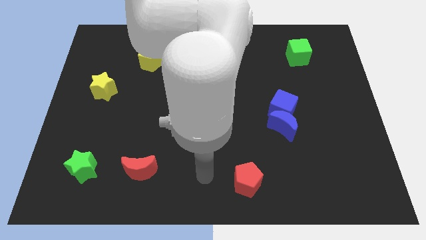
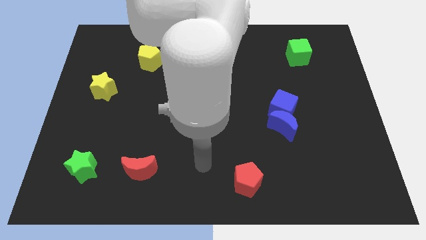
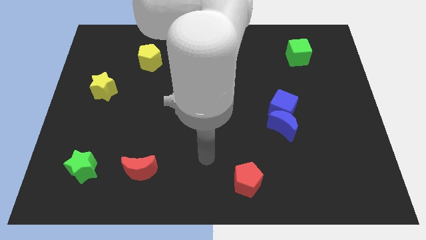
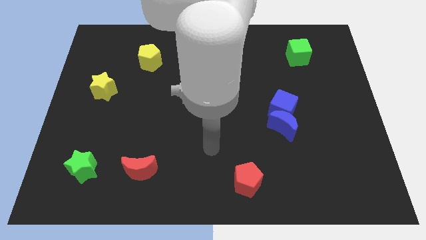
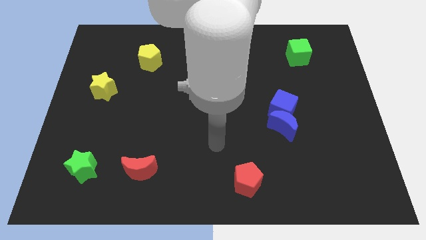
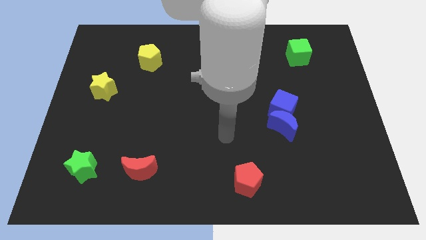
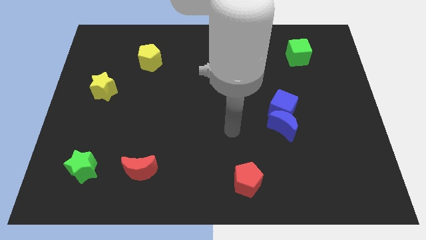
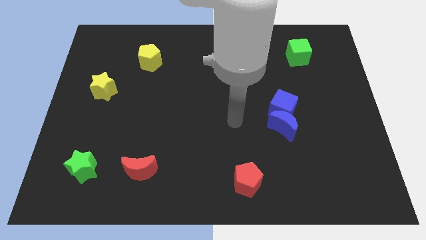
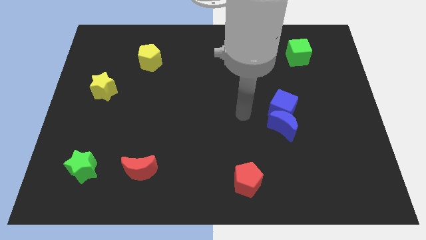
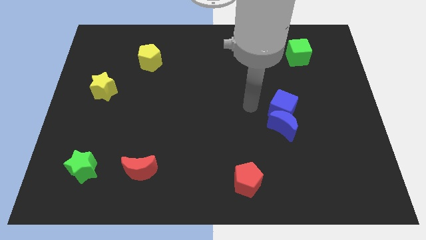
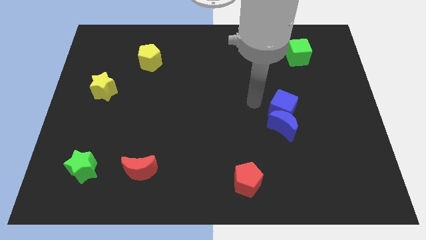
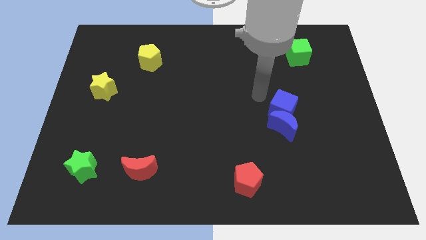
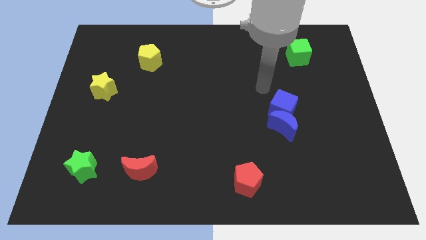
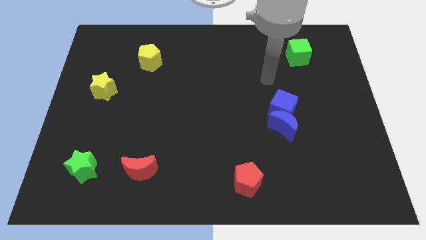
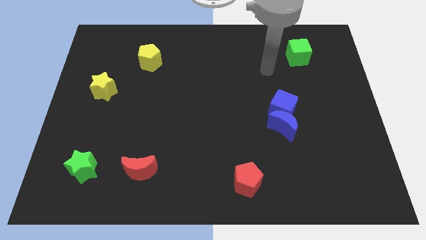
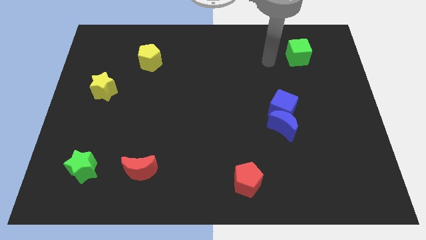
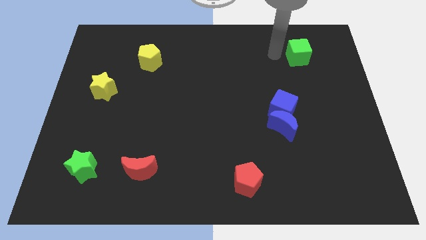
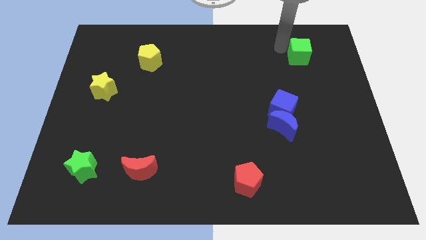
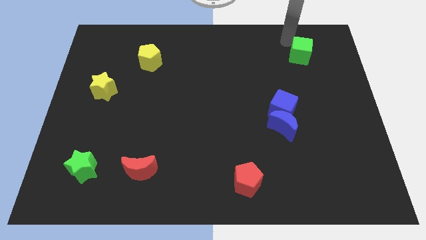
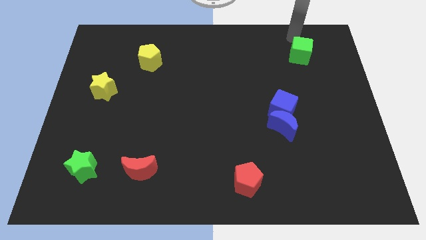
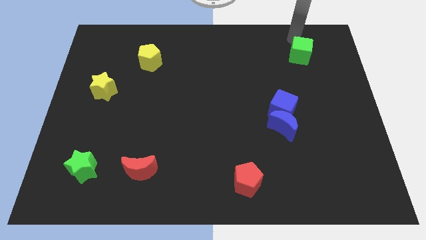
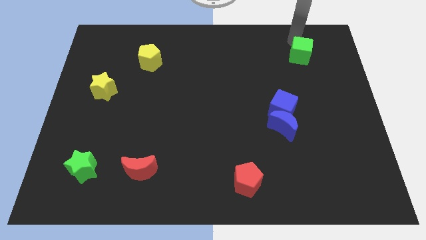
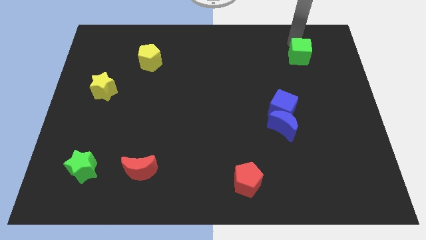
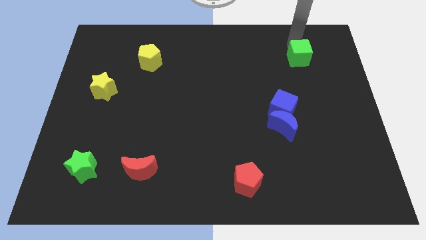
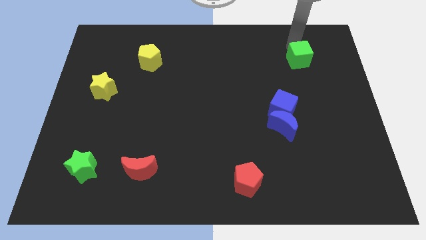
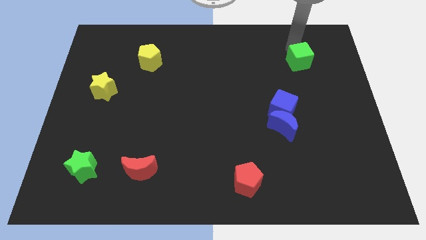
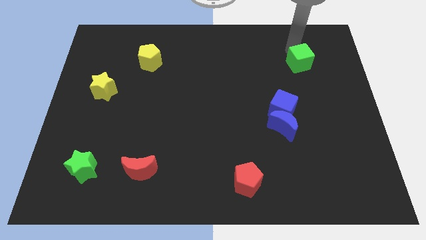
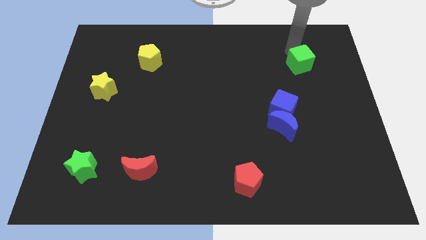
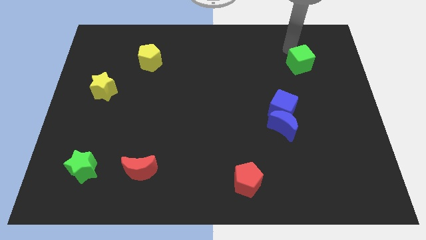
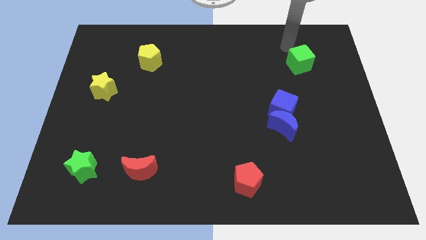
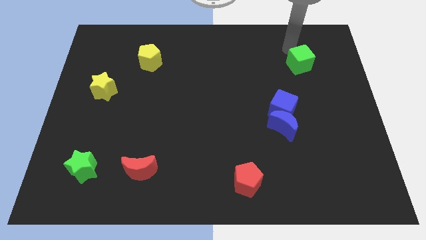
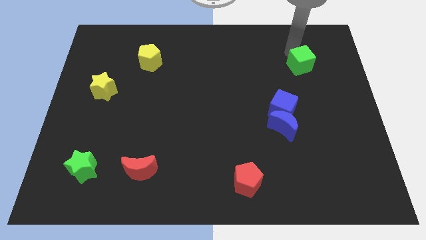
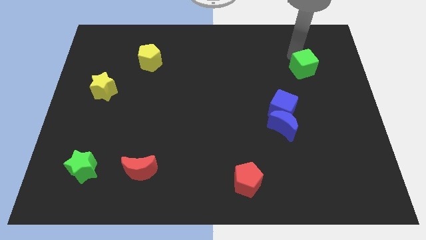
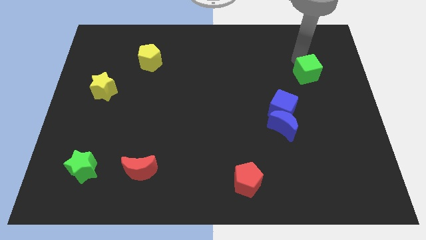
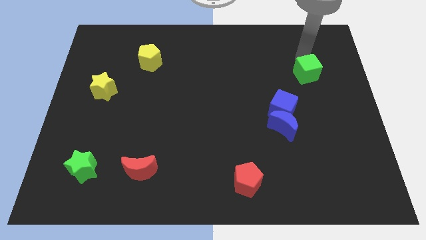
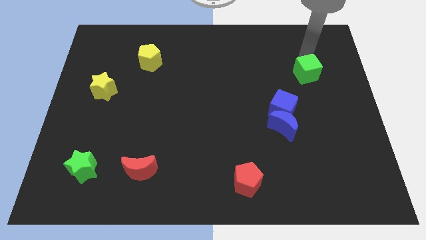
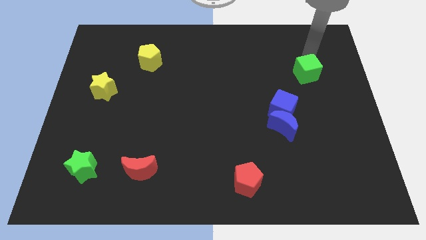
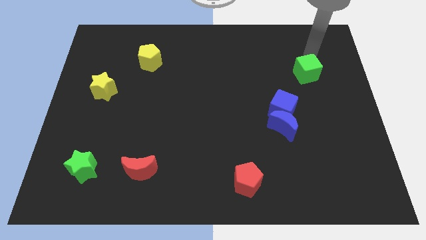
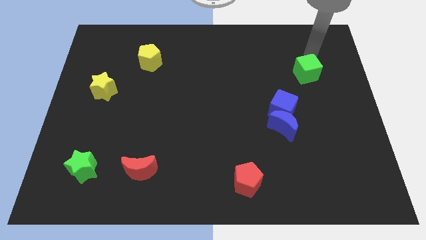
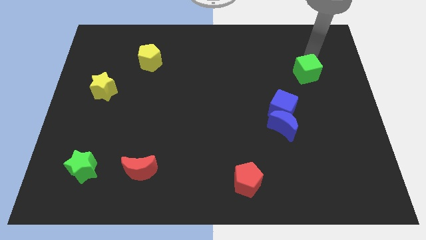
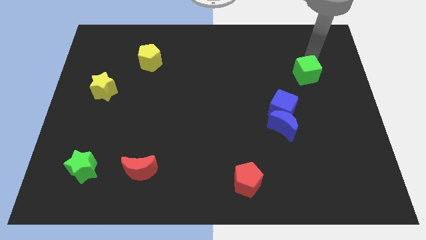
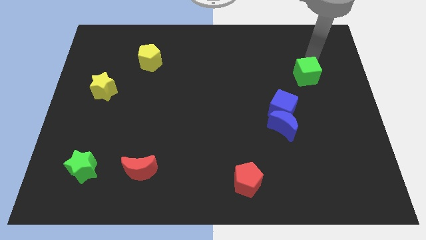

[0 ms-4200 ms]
slide the green cube a little downwards

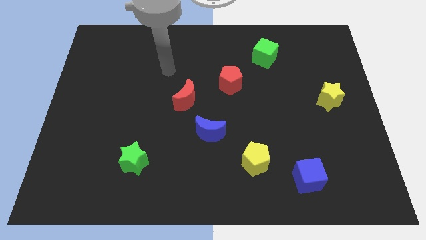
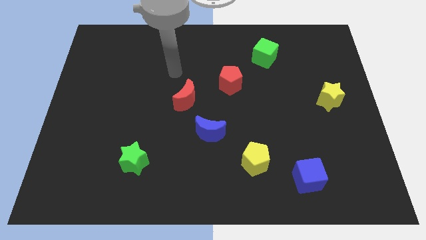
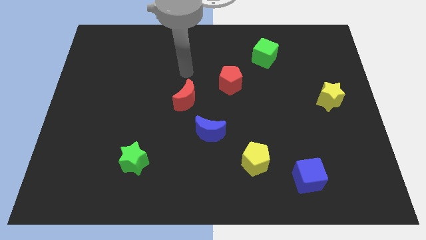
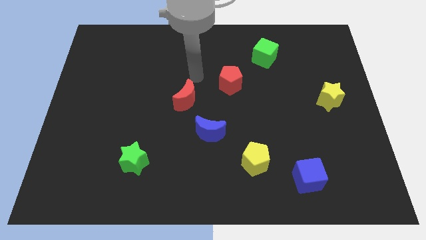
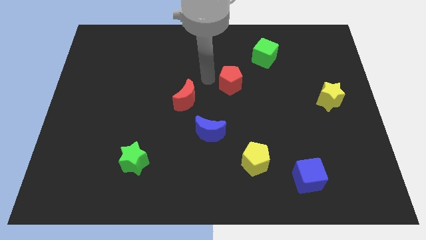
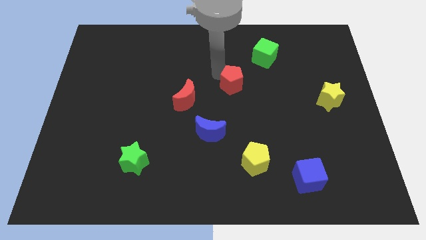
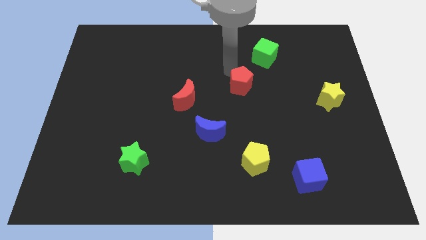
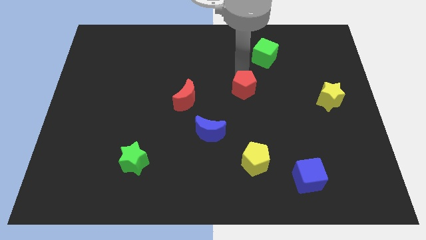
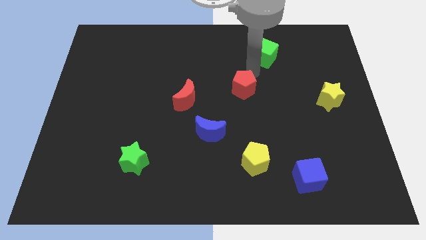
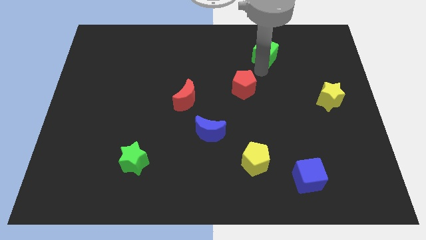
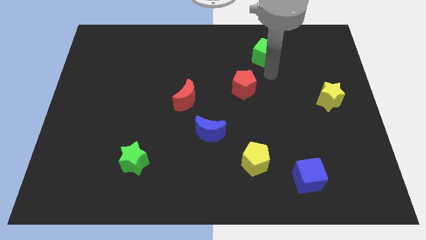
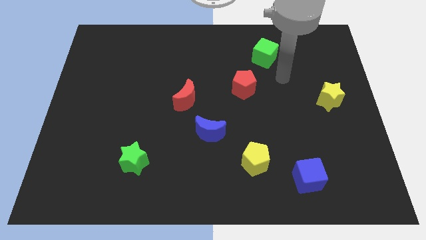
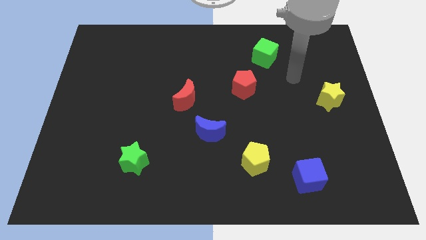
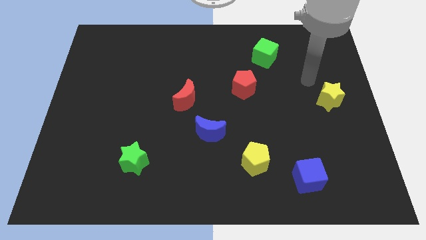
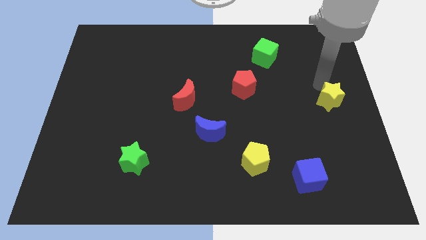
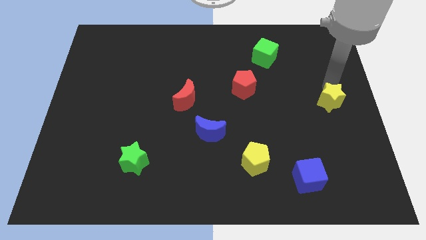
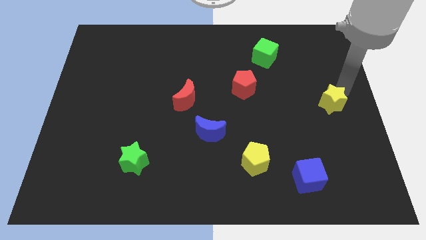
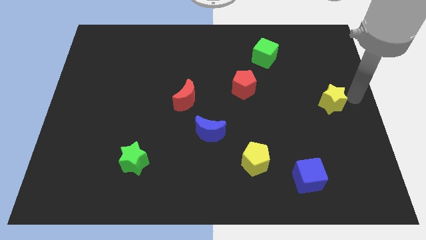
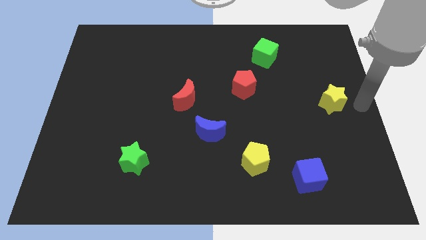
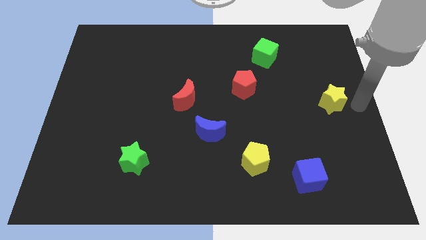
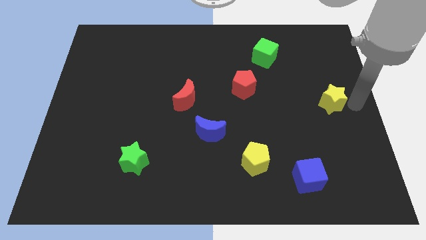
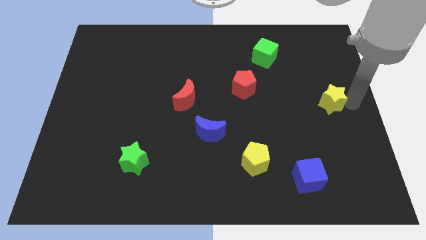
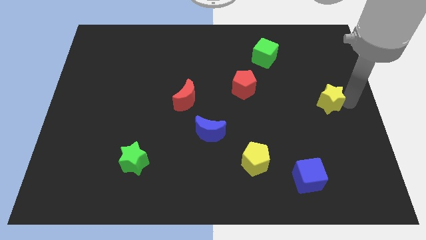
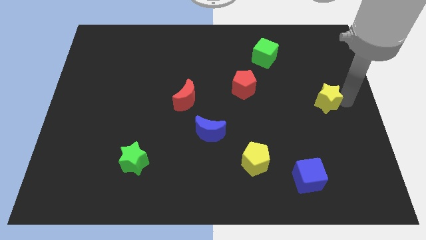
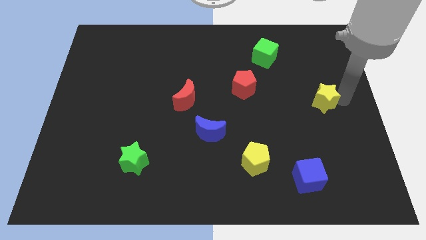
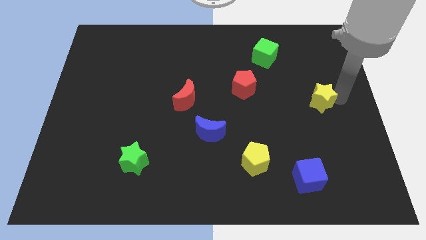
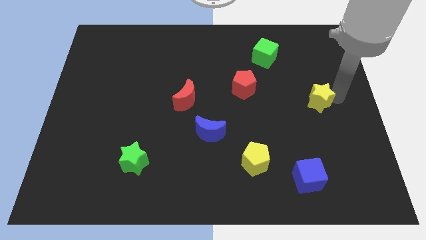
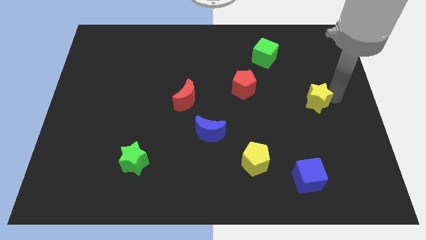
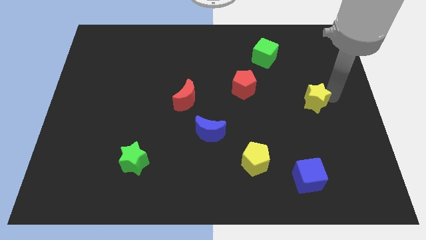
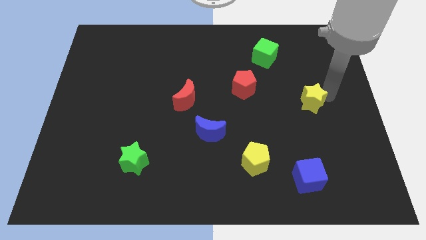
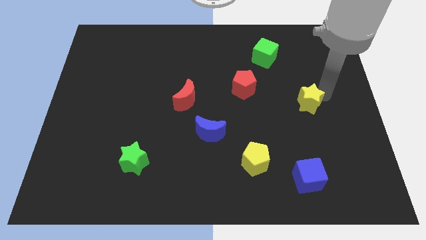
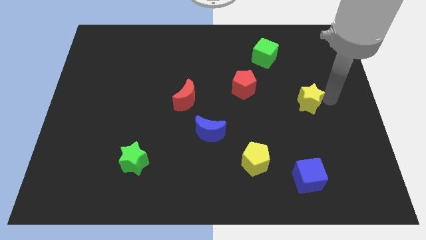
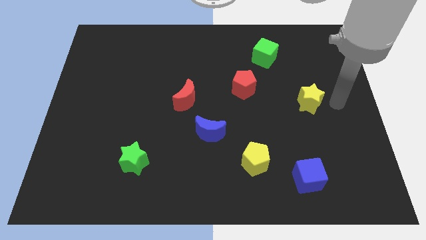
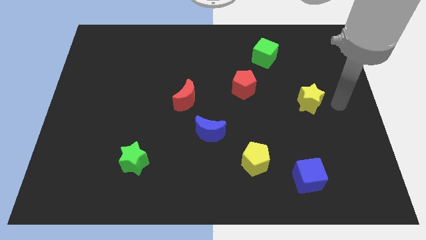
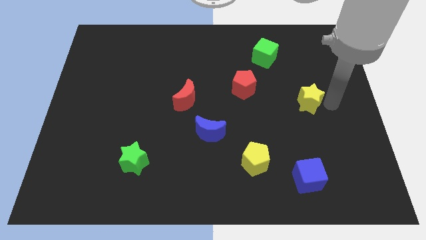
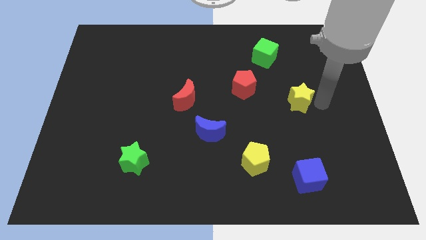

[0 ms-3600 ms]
slightly push the yellow star left

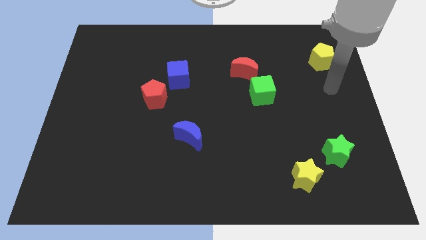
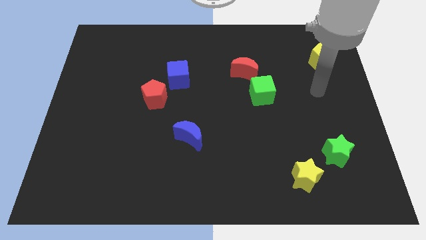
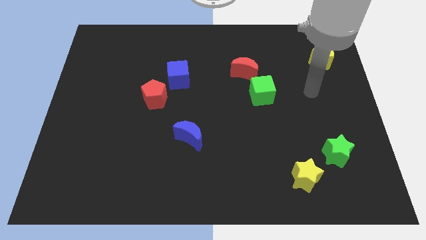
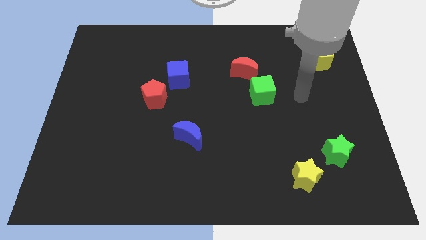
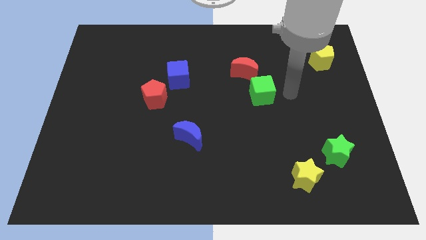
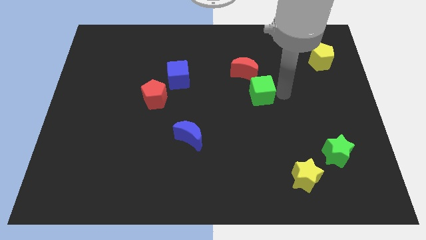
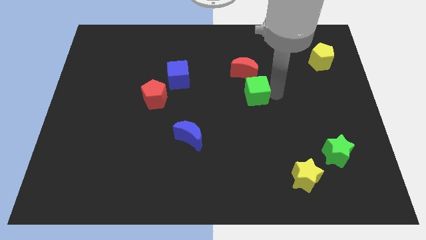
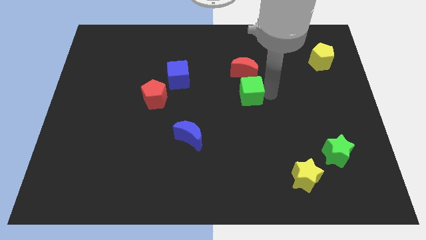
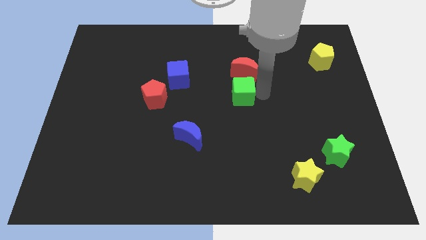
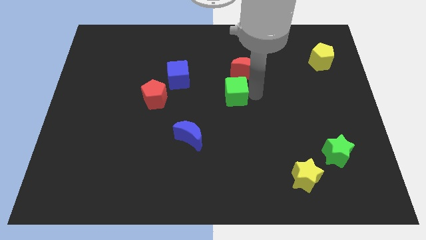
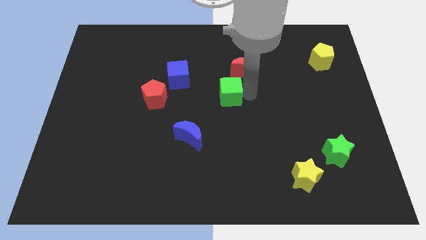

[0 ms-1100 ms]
slightly move the green cube to the left
